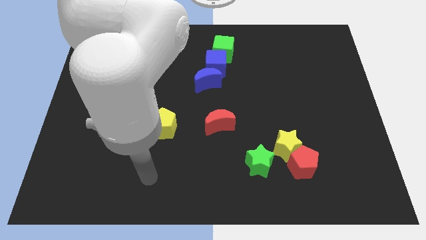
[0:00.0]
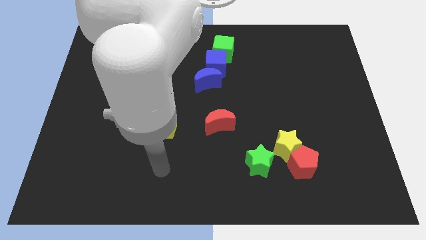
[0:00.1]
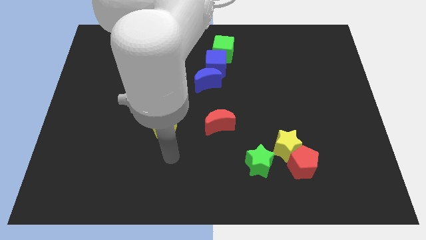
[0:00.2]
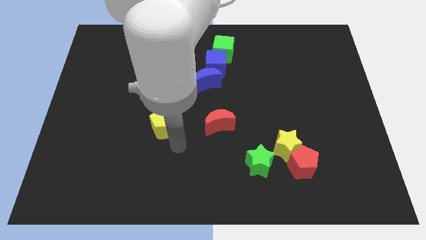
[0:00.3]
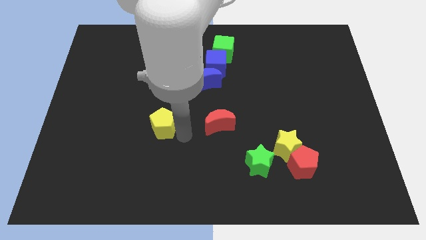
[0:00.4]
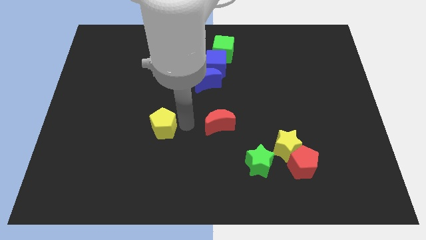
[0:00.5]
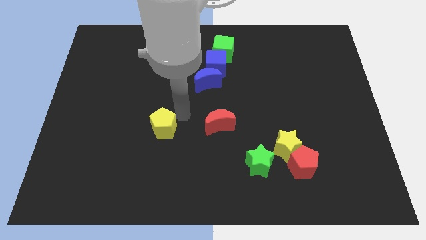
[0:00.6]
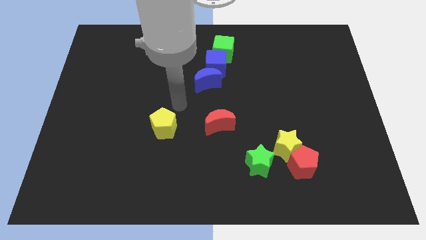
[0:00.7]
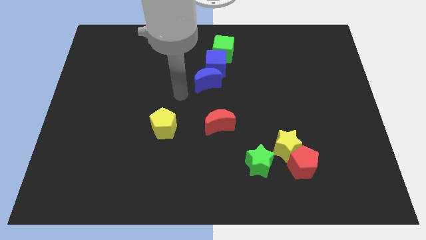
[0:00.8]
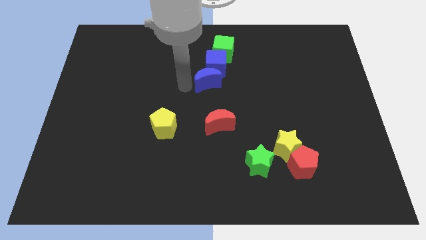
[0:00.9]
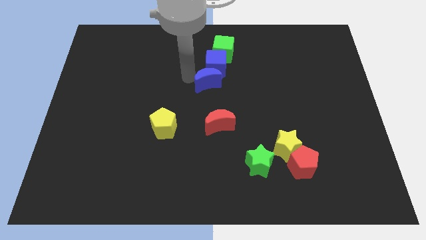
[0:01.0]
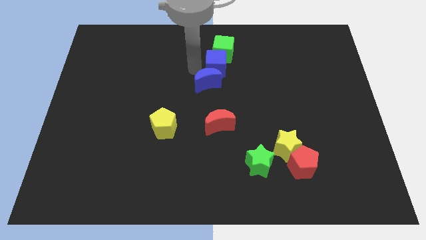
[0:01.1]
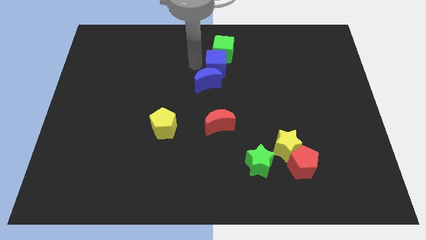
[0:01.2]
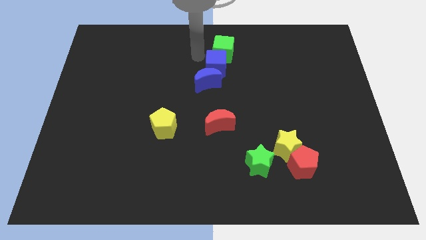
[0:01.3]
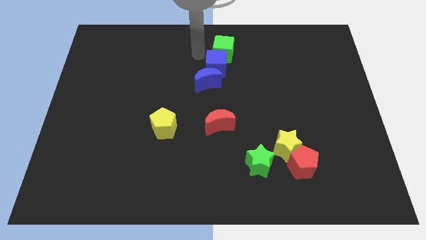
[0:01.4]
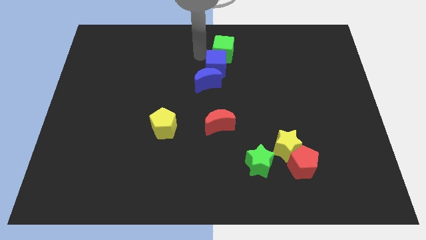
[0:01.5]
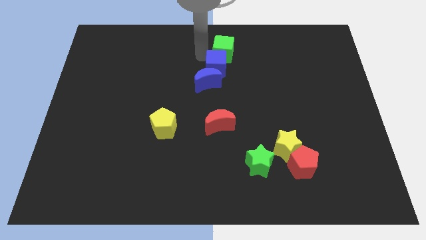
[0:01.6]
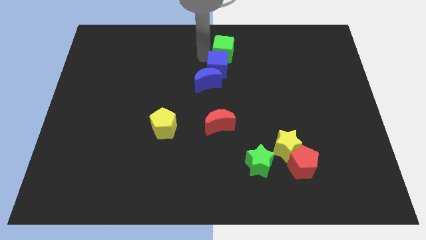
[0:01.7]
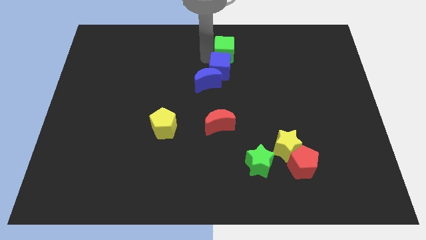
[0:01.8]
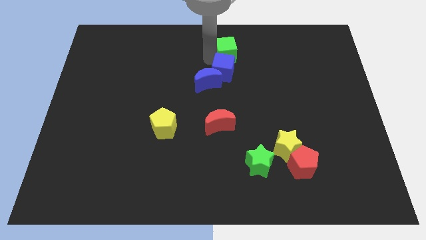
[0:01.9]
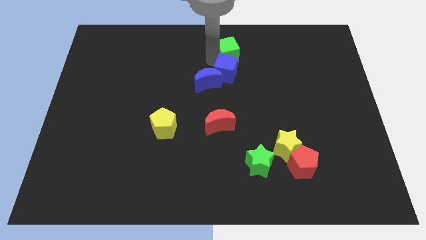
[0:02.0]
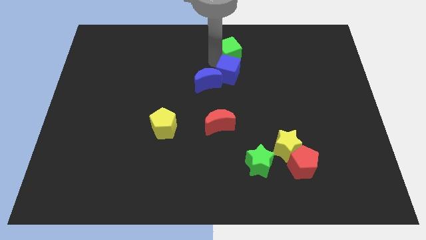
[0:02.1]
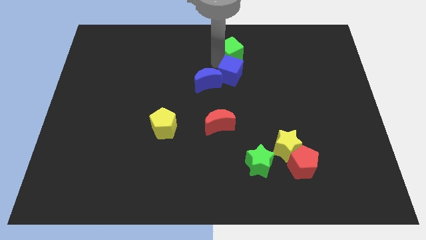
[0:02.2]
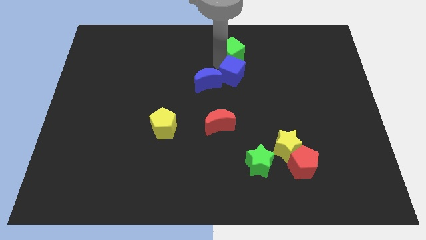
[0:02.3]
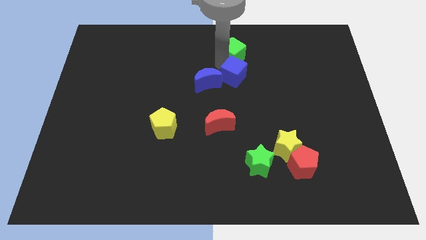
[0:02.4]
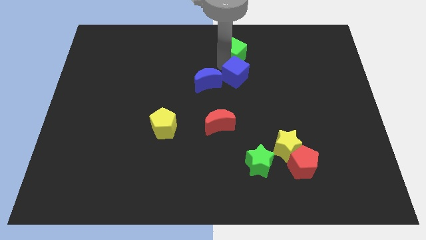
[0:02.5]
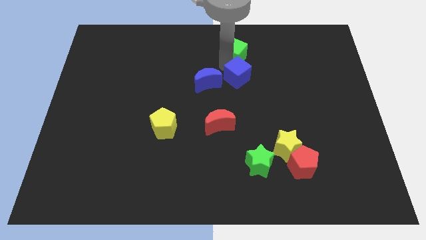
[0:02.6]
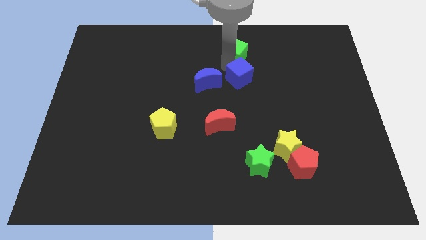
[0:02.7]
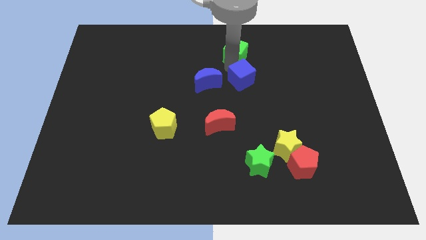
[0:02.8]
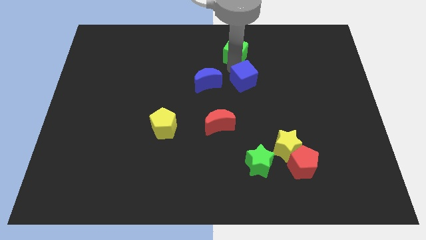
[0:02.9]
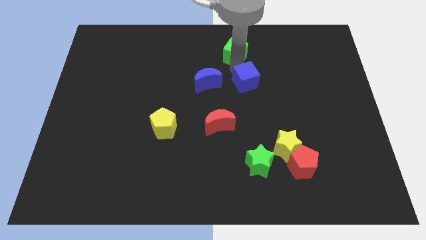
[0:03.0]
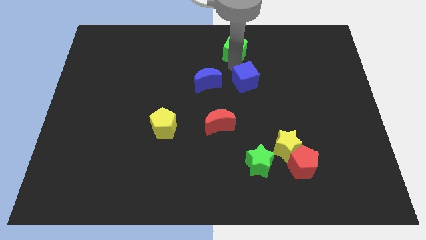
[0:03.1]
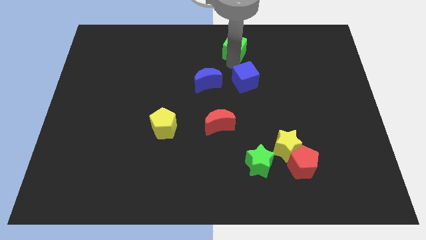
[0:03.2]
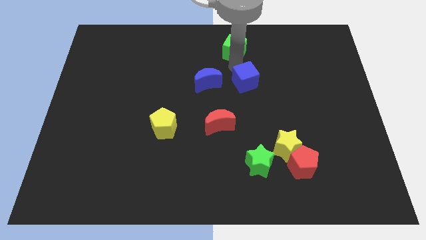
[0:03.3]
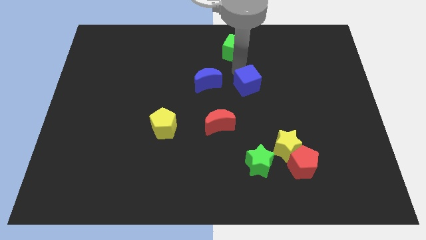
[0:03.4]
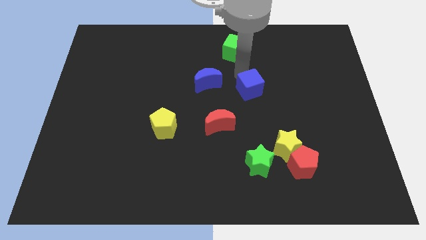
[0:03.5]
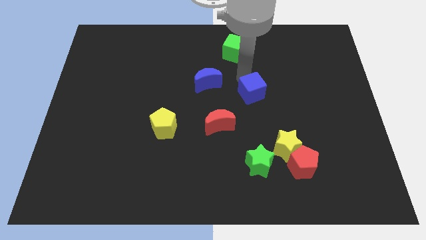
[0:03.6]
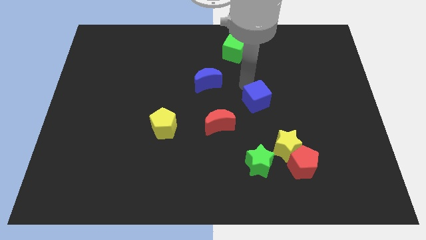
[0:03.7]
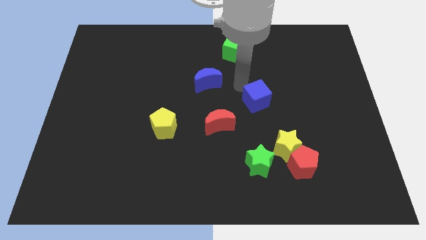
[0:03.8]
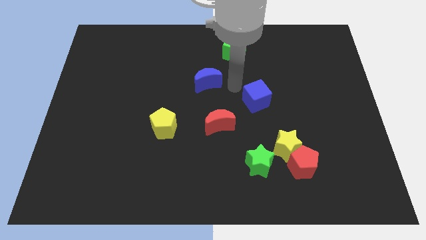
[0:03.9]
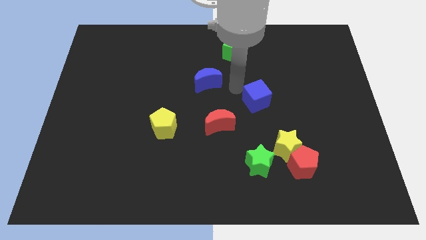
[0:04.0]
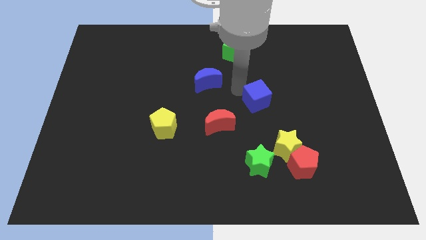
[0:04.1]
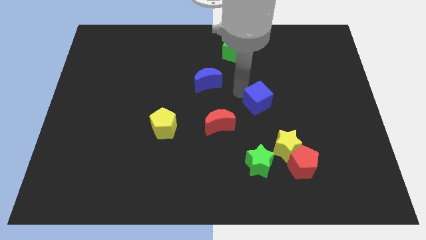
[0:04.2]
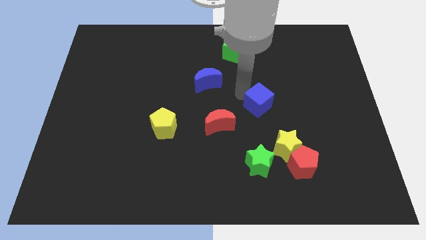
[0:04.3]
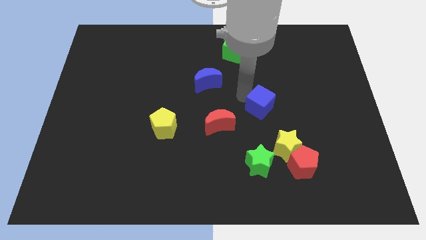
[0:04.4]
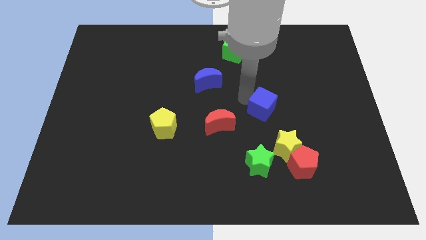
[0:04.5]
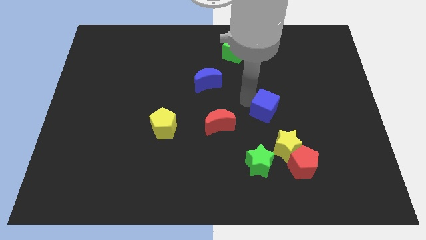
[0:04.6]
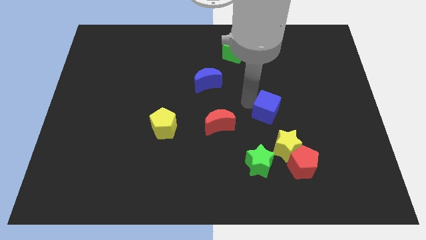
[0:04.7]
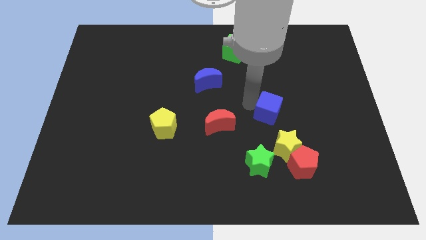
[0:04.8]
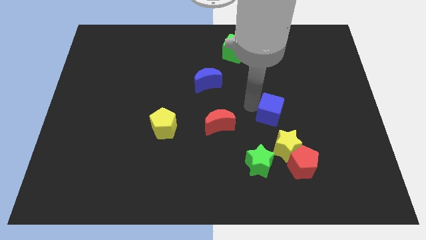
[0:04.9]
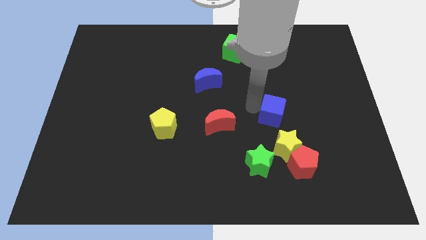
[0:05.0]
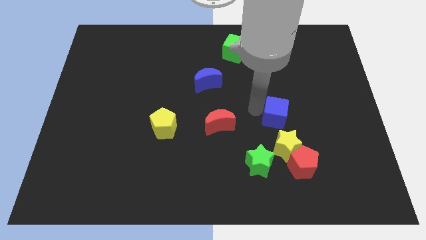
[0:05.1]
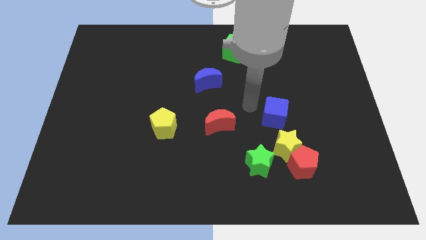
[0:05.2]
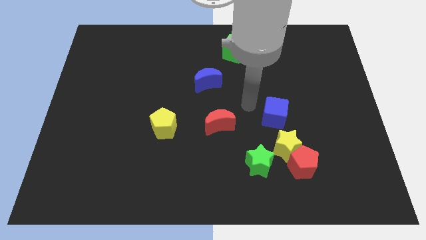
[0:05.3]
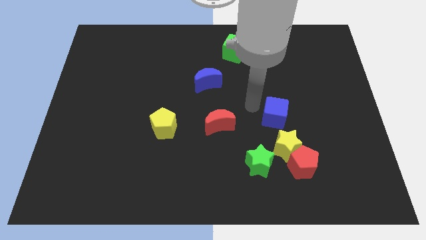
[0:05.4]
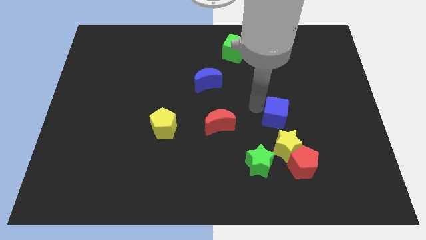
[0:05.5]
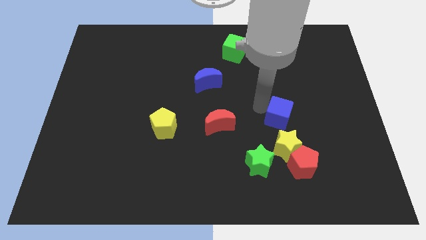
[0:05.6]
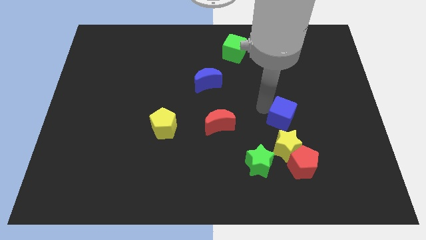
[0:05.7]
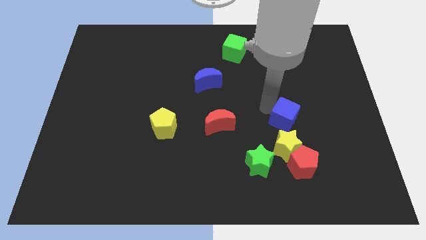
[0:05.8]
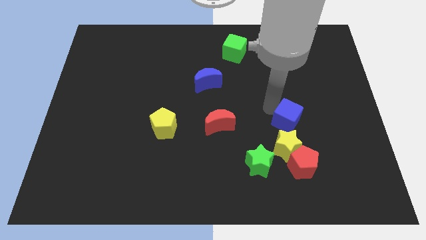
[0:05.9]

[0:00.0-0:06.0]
put the blue cube diagonally up and to the right of the yellow star
